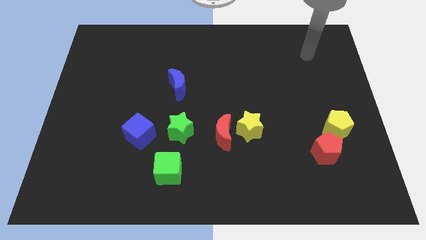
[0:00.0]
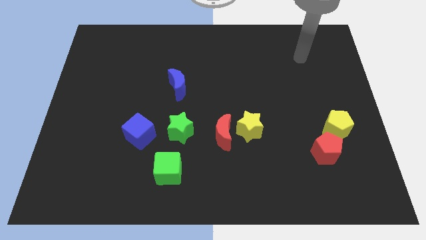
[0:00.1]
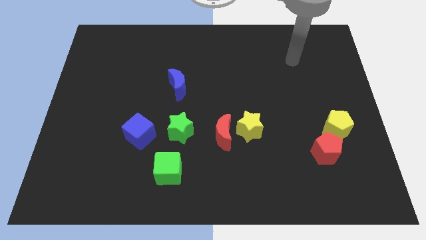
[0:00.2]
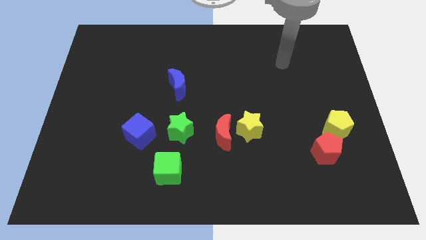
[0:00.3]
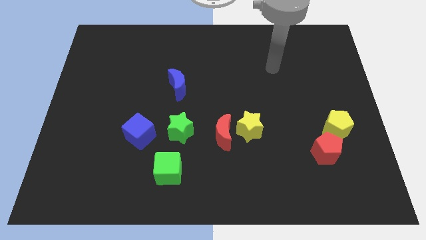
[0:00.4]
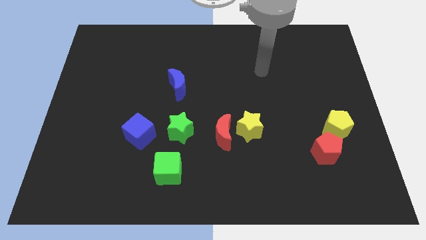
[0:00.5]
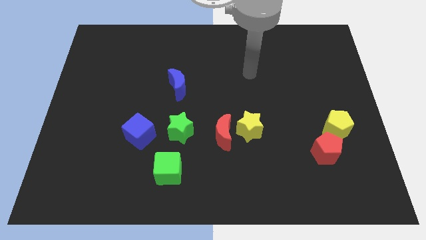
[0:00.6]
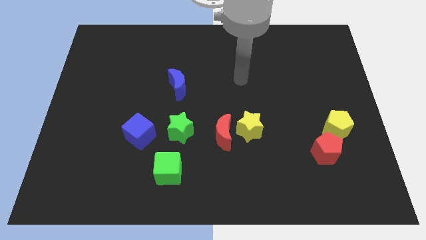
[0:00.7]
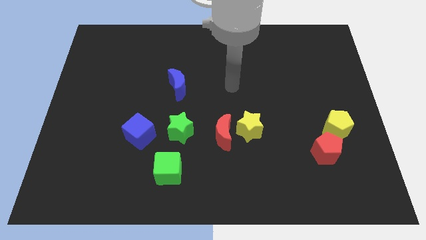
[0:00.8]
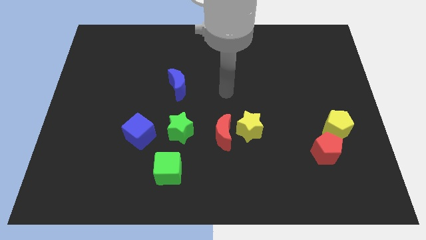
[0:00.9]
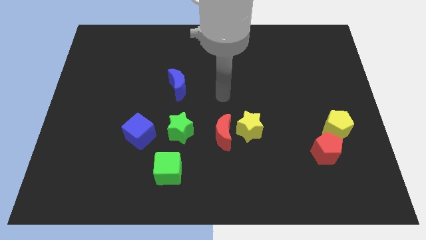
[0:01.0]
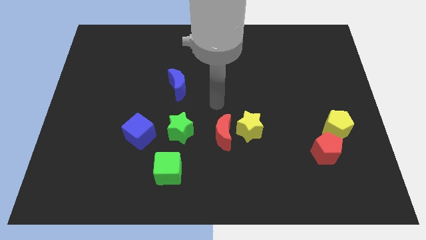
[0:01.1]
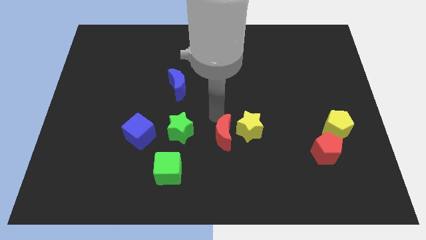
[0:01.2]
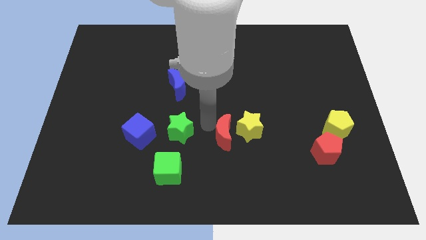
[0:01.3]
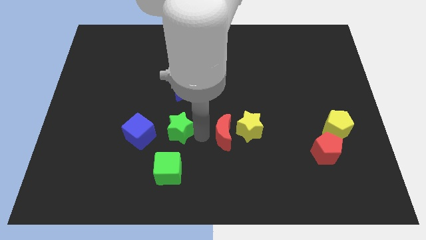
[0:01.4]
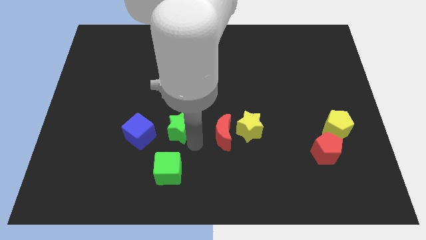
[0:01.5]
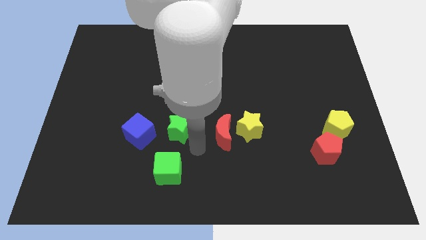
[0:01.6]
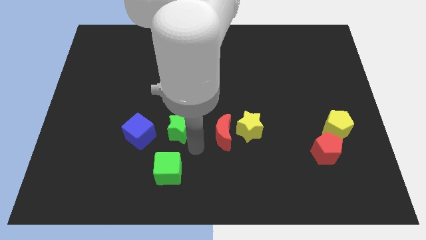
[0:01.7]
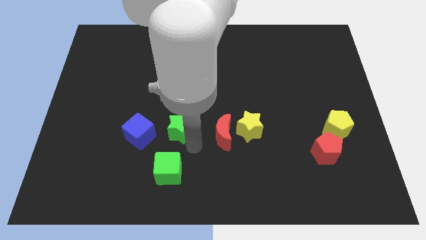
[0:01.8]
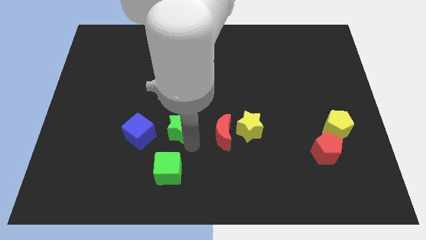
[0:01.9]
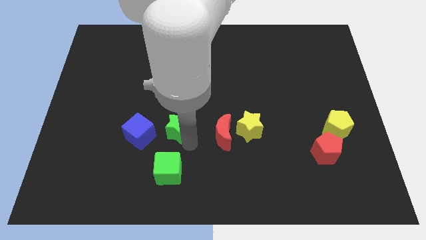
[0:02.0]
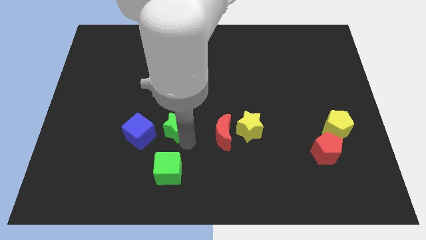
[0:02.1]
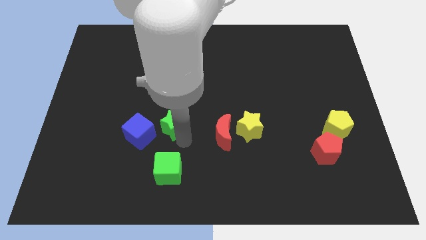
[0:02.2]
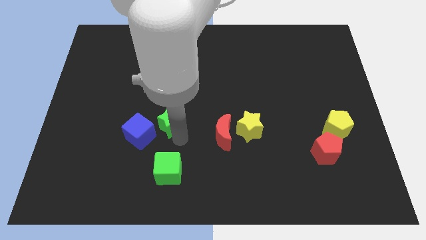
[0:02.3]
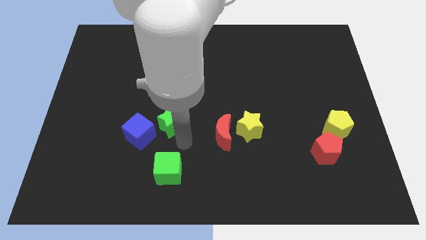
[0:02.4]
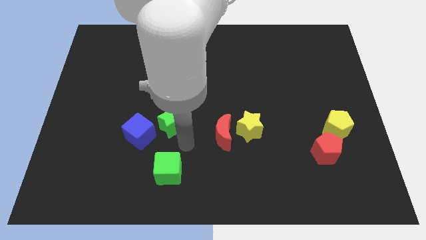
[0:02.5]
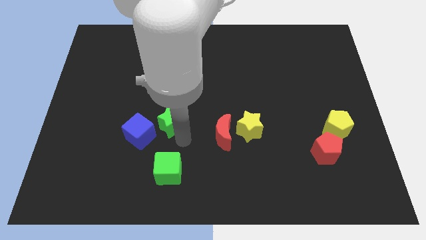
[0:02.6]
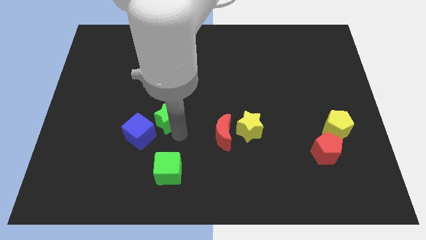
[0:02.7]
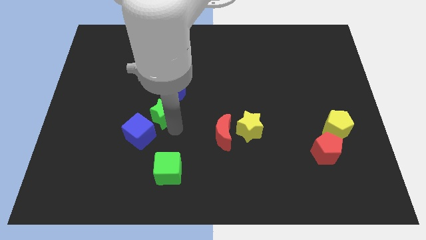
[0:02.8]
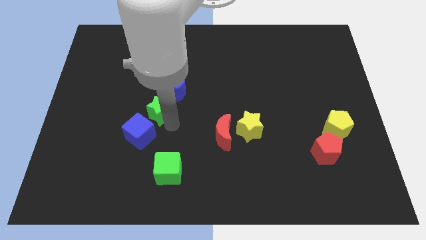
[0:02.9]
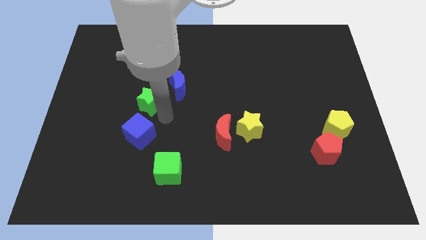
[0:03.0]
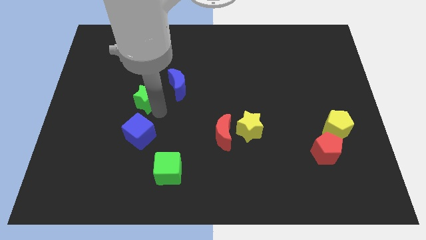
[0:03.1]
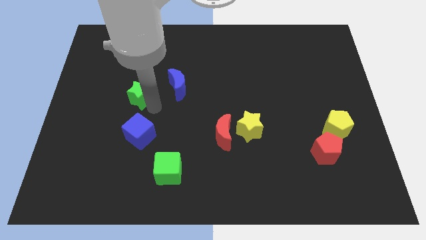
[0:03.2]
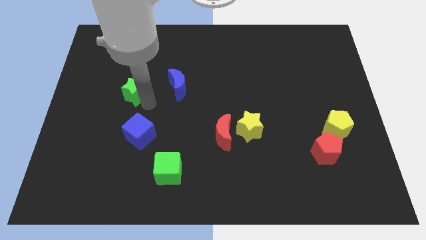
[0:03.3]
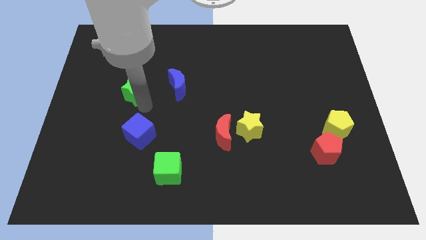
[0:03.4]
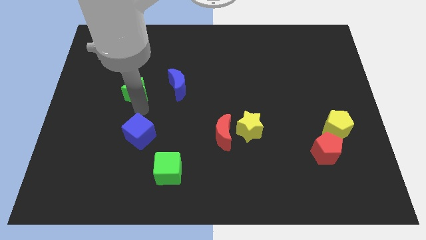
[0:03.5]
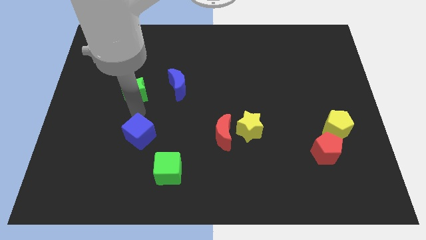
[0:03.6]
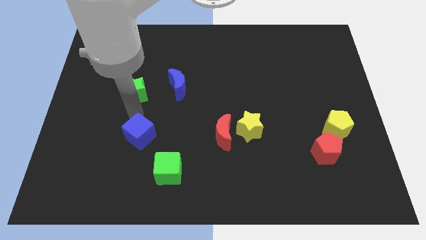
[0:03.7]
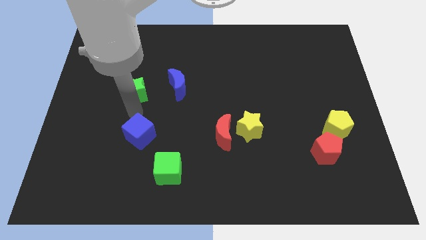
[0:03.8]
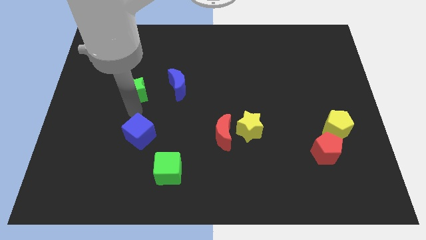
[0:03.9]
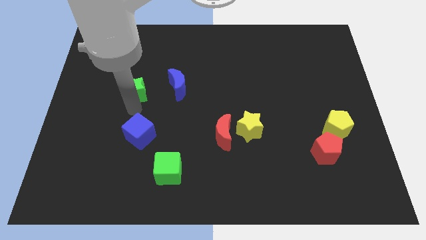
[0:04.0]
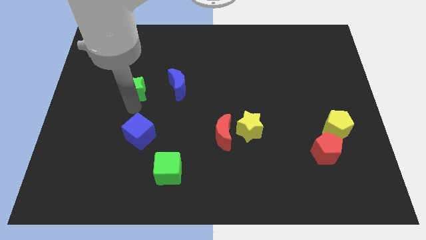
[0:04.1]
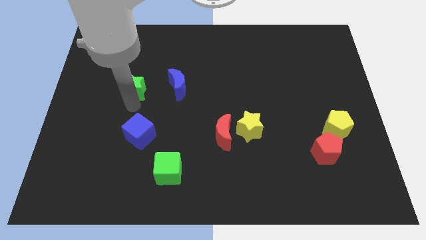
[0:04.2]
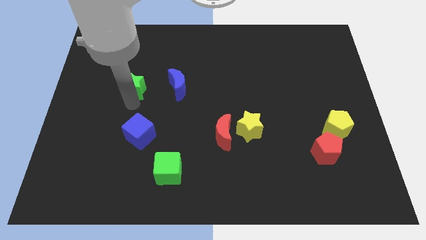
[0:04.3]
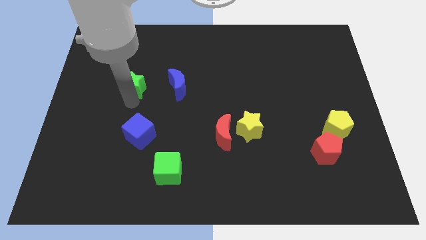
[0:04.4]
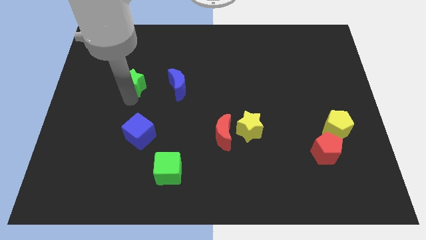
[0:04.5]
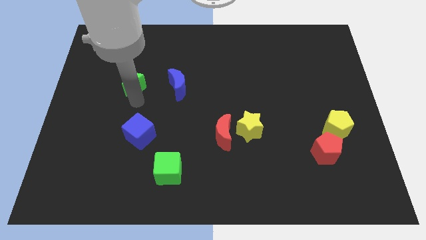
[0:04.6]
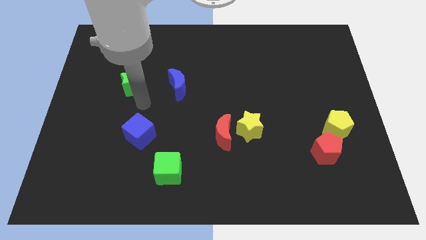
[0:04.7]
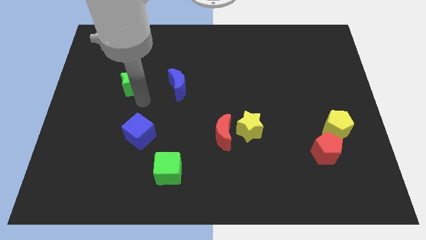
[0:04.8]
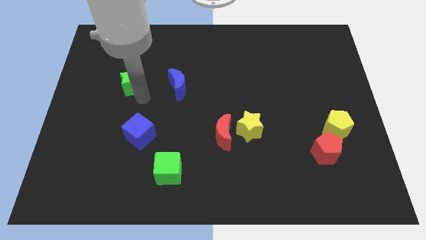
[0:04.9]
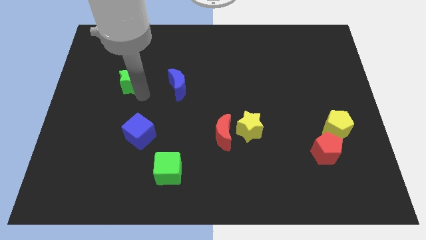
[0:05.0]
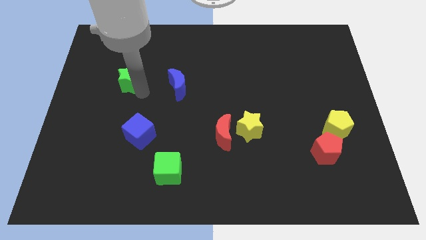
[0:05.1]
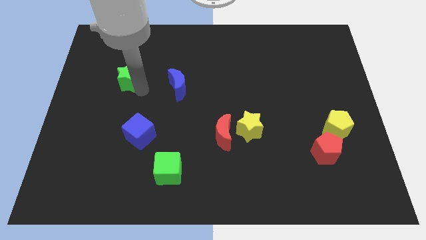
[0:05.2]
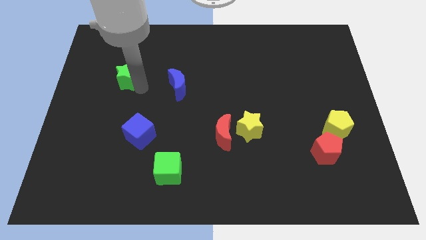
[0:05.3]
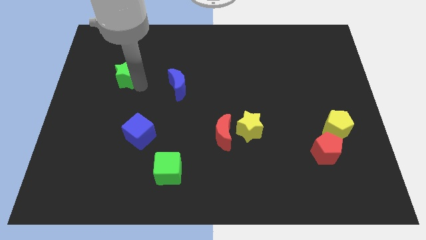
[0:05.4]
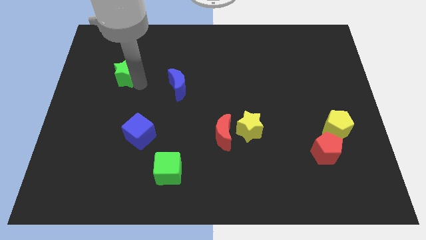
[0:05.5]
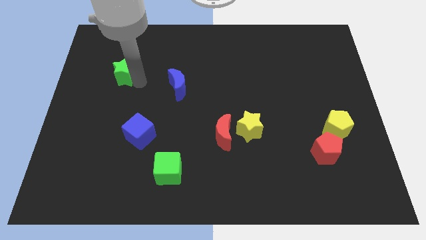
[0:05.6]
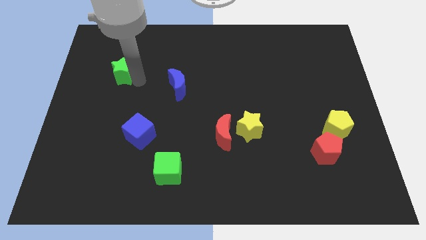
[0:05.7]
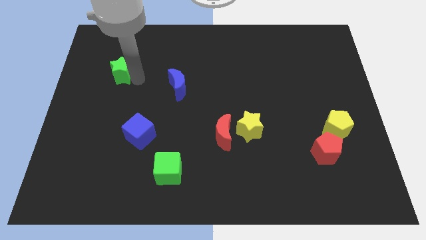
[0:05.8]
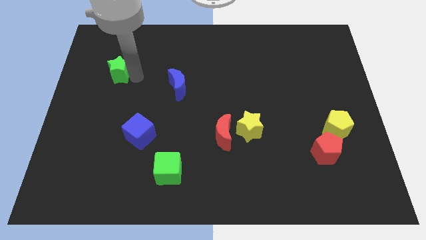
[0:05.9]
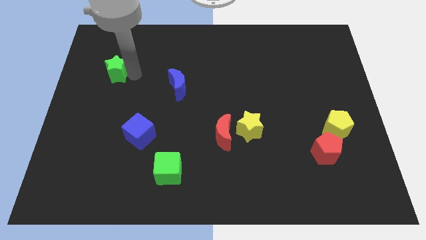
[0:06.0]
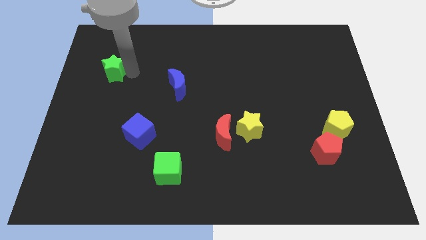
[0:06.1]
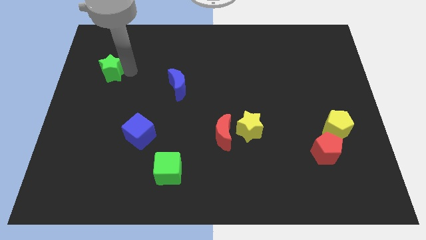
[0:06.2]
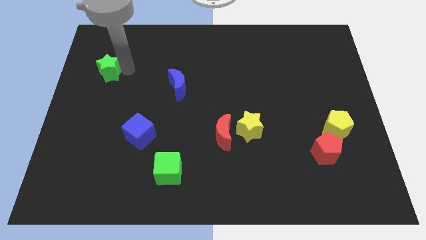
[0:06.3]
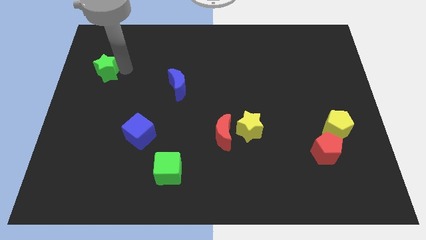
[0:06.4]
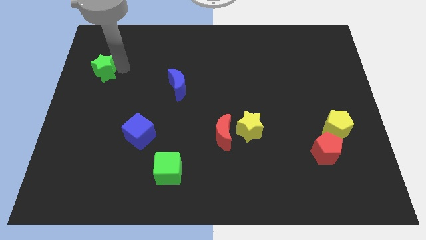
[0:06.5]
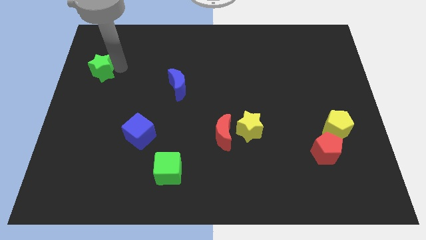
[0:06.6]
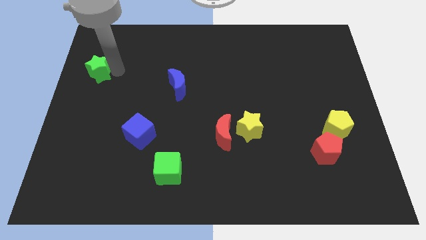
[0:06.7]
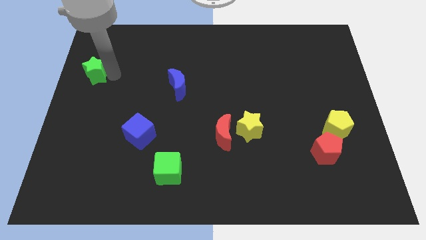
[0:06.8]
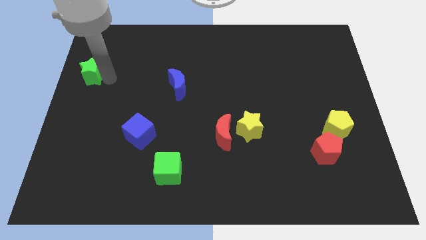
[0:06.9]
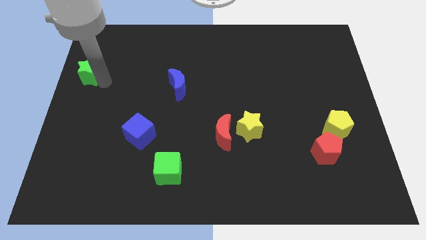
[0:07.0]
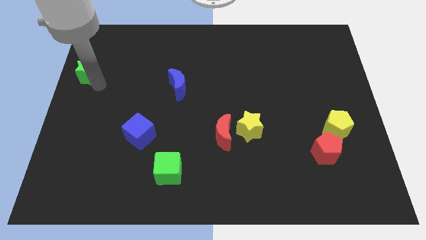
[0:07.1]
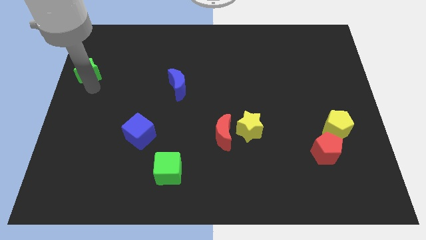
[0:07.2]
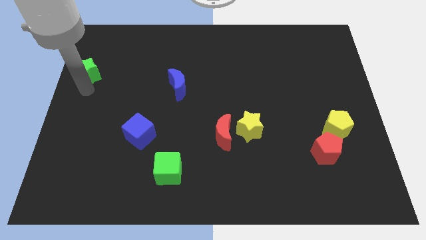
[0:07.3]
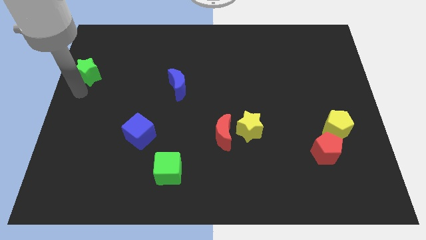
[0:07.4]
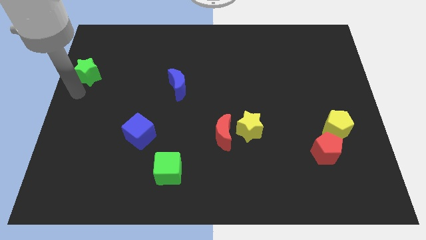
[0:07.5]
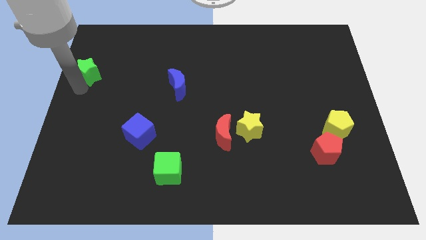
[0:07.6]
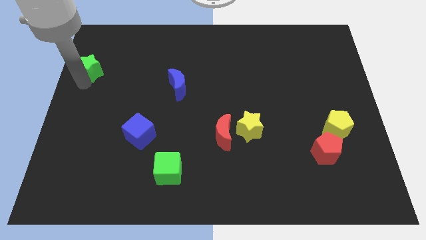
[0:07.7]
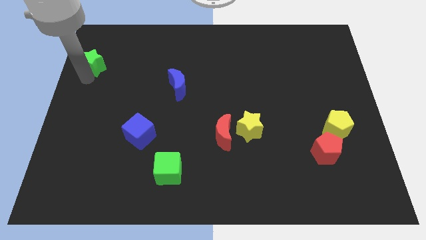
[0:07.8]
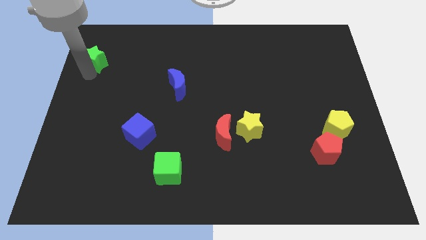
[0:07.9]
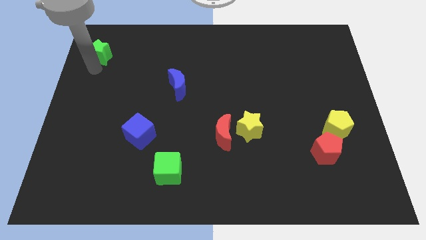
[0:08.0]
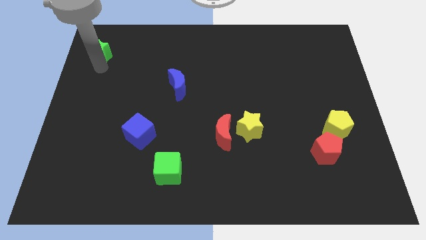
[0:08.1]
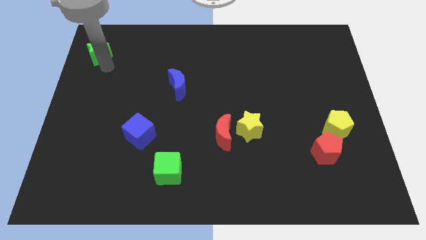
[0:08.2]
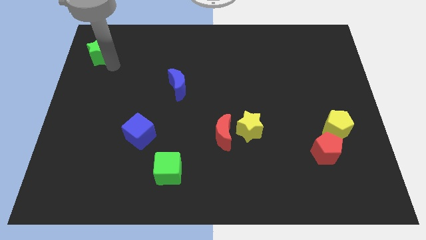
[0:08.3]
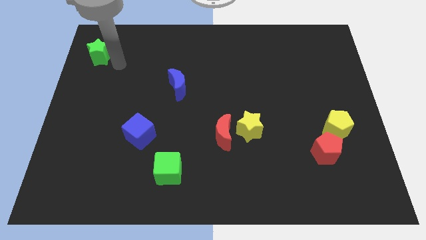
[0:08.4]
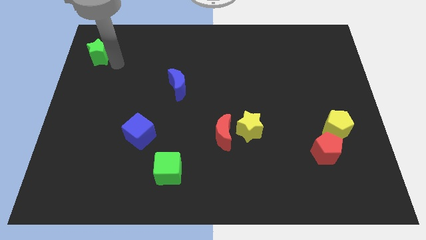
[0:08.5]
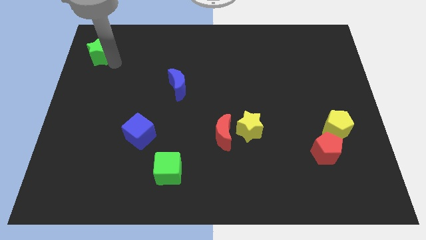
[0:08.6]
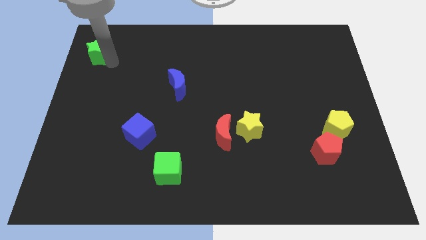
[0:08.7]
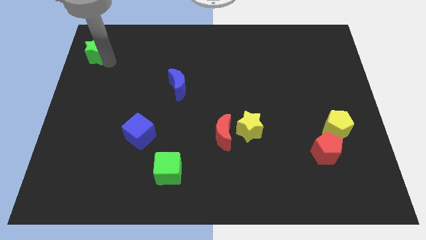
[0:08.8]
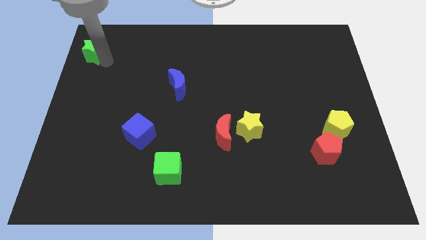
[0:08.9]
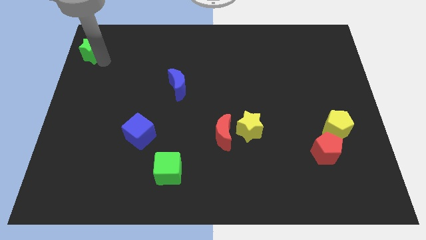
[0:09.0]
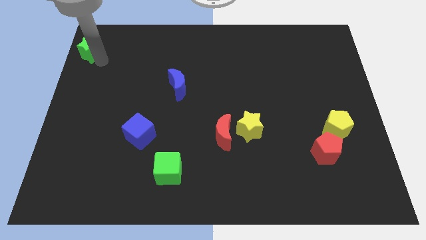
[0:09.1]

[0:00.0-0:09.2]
push the green star to the upper left corner
